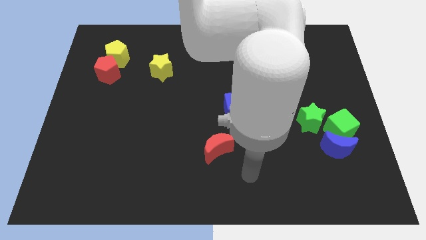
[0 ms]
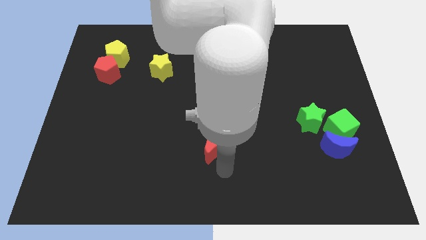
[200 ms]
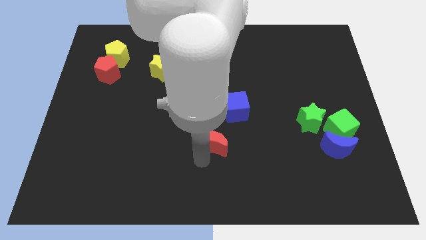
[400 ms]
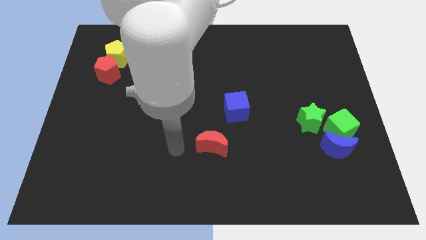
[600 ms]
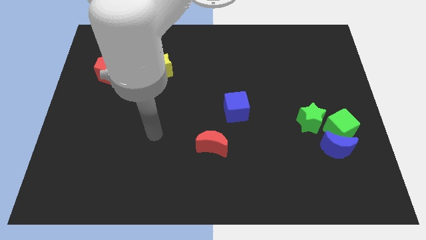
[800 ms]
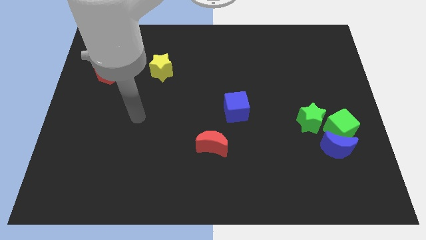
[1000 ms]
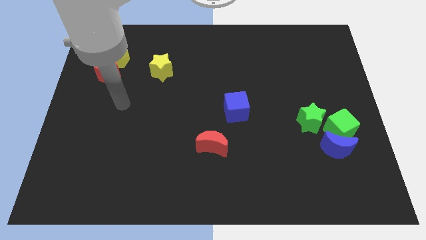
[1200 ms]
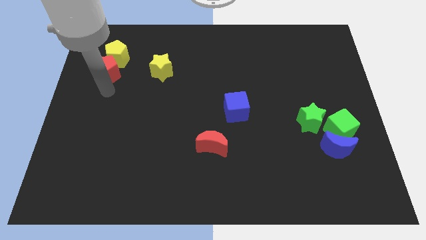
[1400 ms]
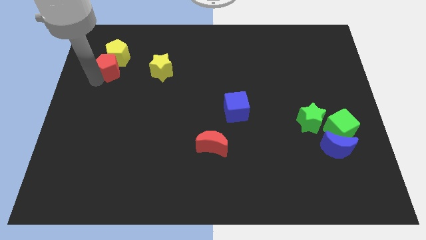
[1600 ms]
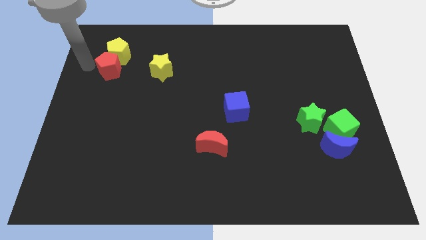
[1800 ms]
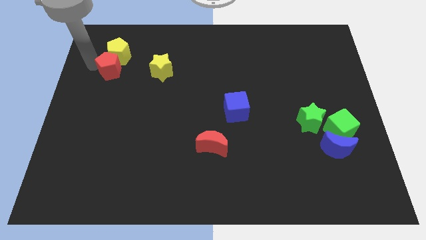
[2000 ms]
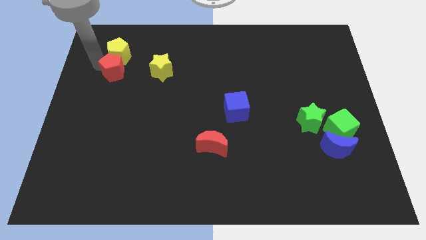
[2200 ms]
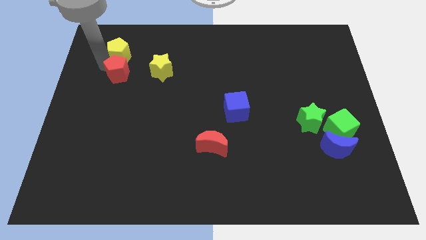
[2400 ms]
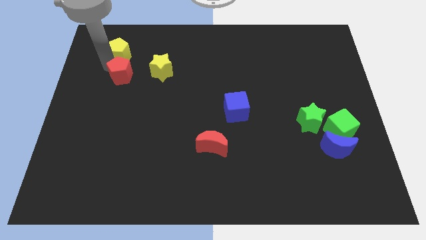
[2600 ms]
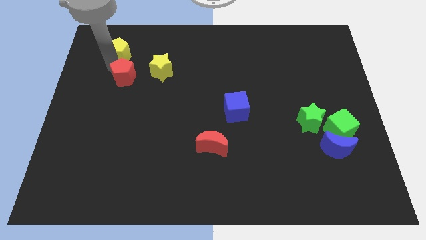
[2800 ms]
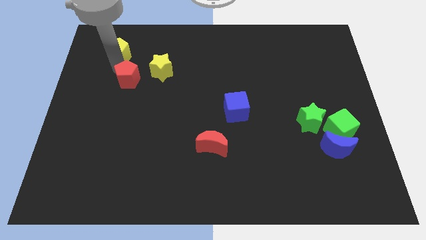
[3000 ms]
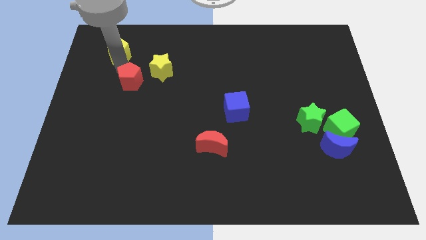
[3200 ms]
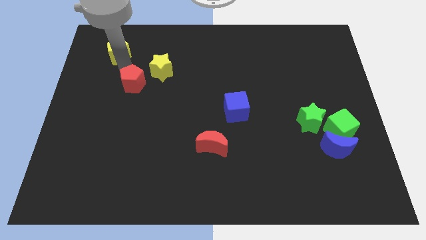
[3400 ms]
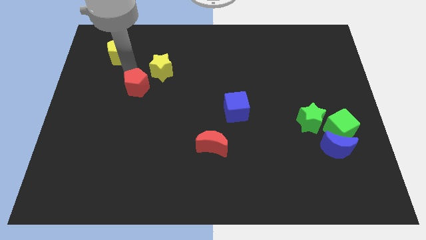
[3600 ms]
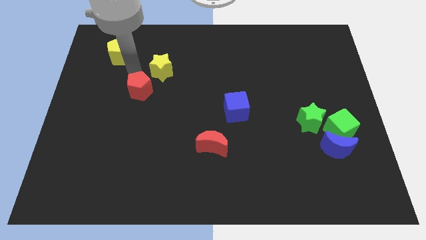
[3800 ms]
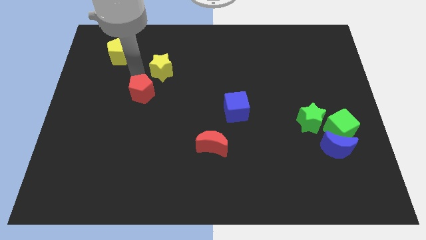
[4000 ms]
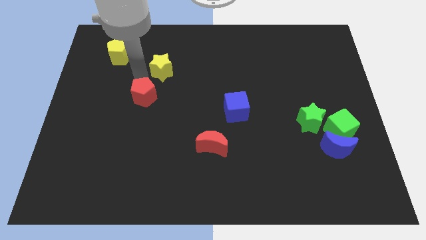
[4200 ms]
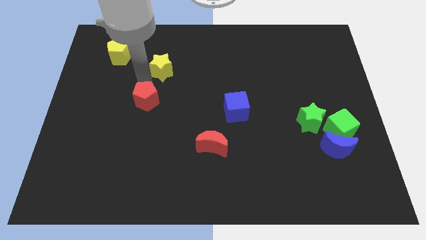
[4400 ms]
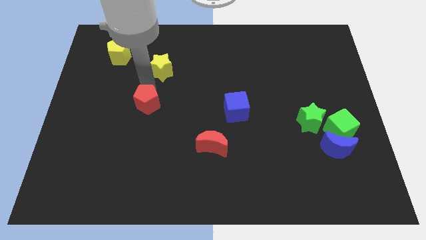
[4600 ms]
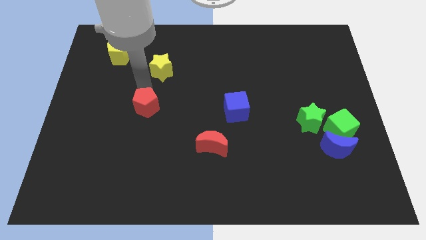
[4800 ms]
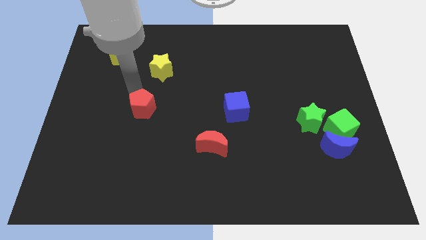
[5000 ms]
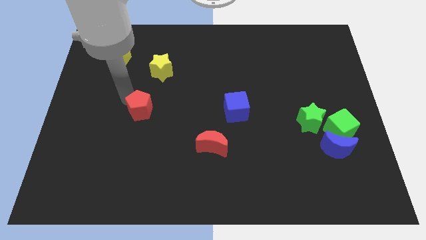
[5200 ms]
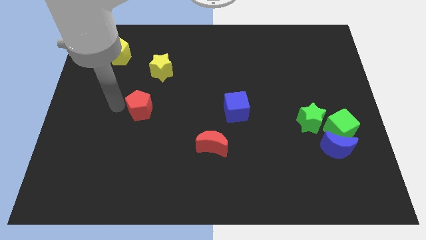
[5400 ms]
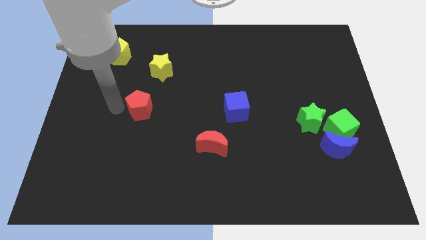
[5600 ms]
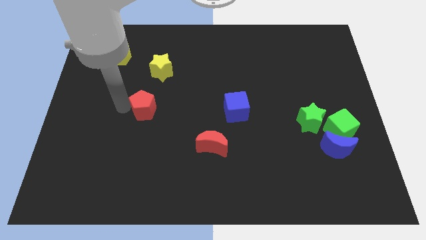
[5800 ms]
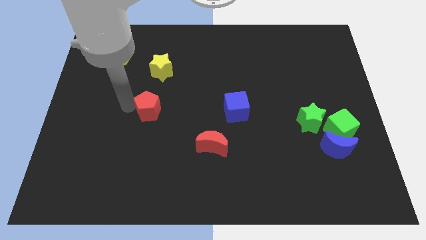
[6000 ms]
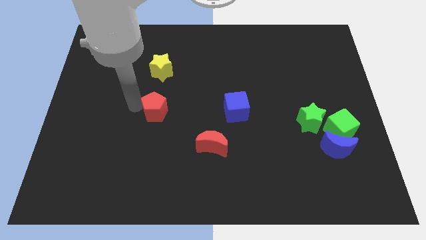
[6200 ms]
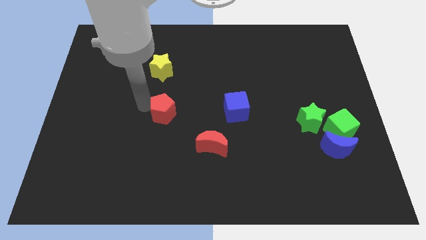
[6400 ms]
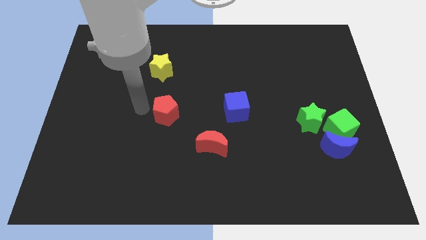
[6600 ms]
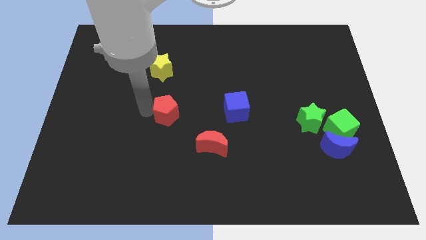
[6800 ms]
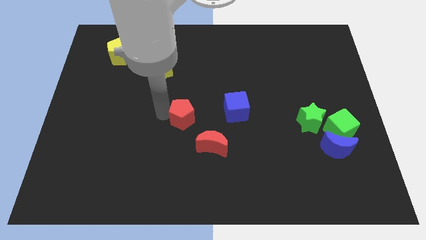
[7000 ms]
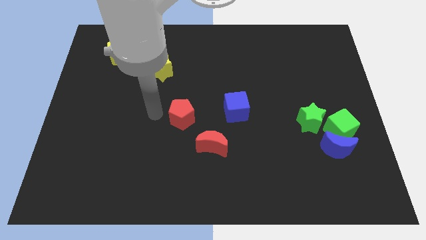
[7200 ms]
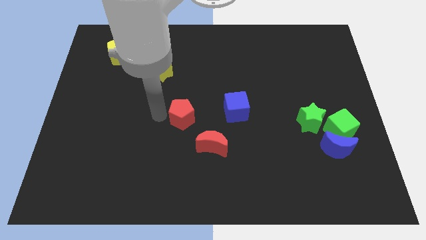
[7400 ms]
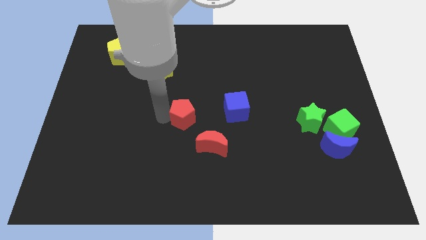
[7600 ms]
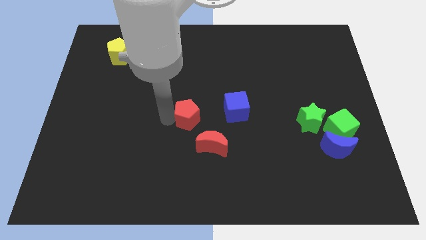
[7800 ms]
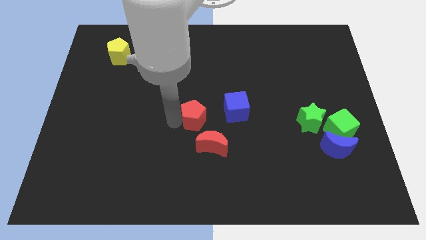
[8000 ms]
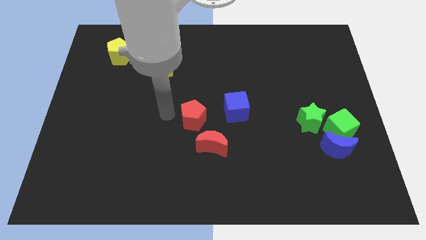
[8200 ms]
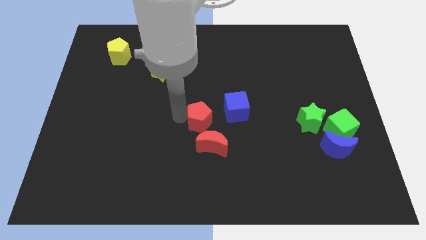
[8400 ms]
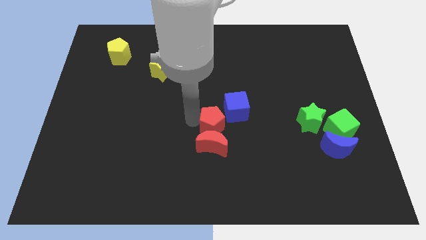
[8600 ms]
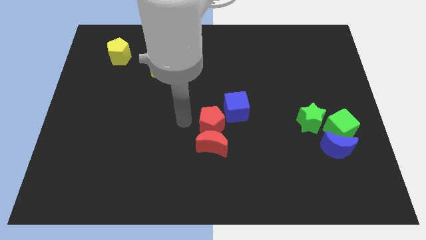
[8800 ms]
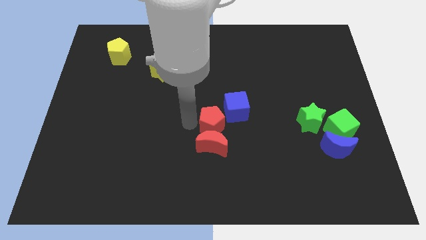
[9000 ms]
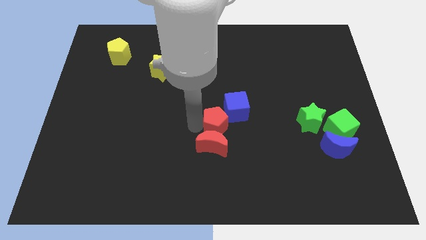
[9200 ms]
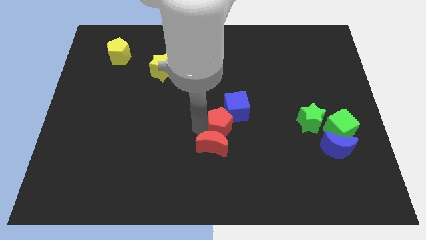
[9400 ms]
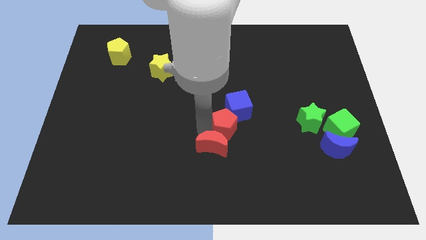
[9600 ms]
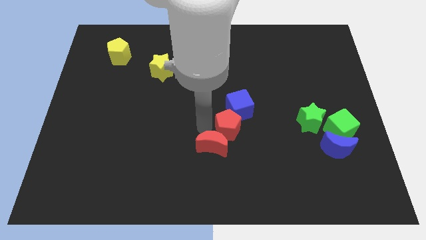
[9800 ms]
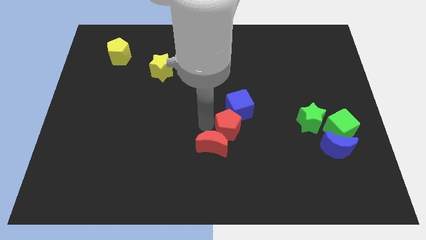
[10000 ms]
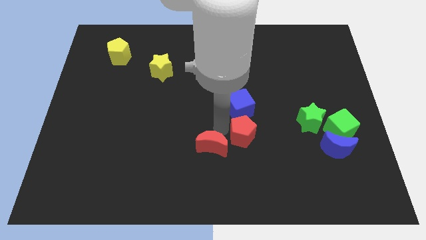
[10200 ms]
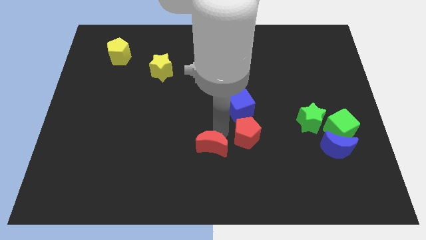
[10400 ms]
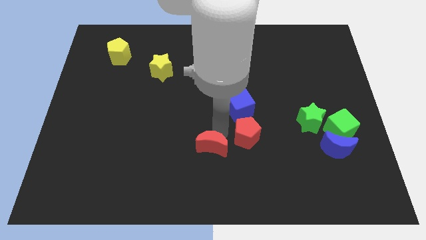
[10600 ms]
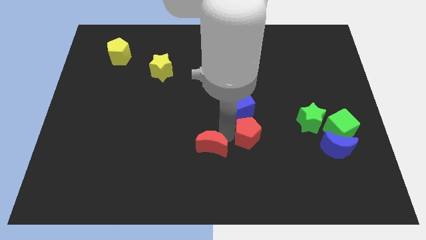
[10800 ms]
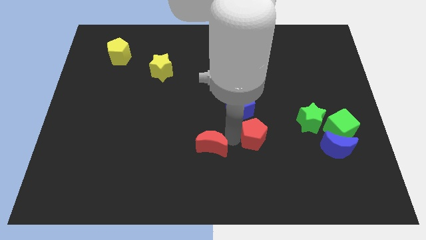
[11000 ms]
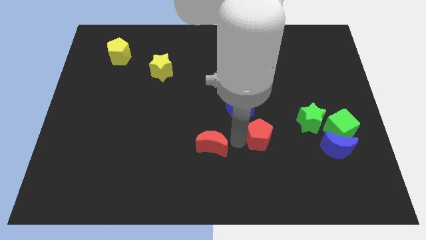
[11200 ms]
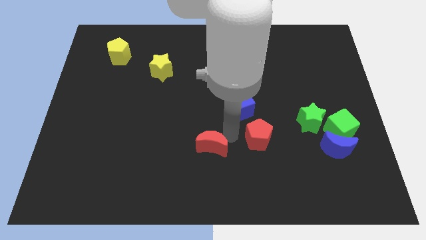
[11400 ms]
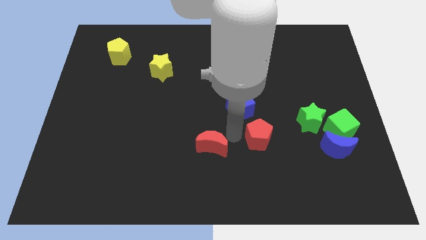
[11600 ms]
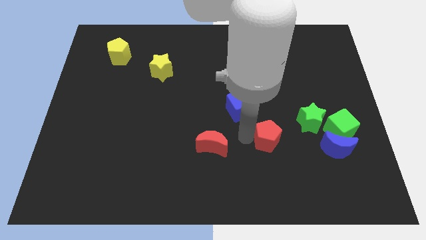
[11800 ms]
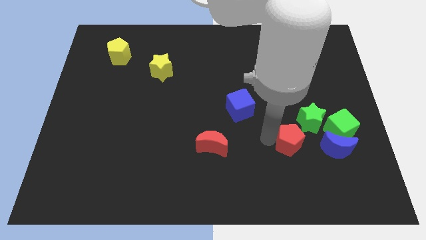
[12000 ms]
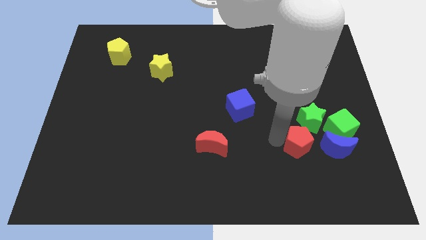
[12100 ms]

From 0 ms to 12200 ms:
move the red pentagon to the bottom of the green star
